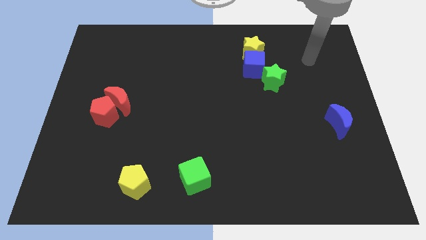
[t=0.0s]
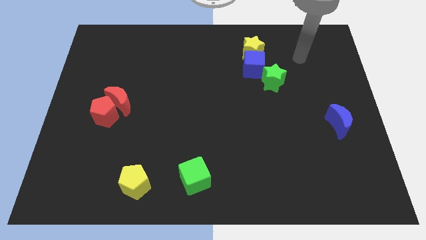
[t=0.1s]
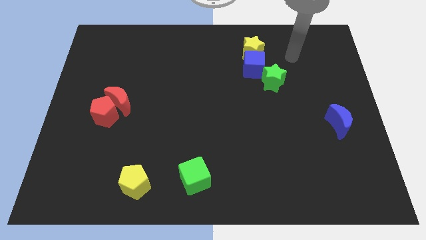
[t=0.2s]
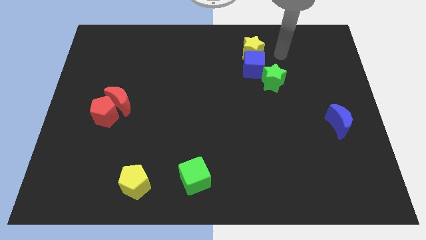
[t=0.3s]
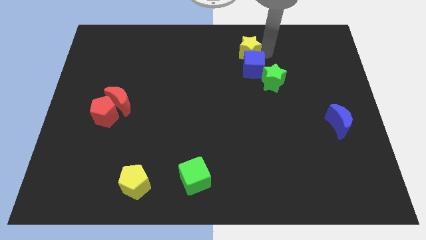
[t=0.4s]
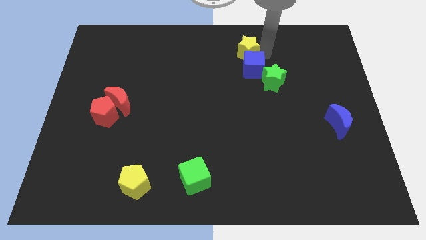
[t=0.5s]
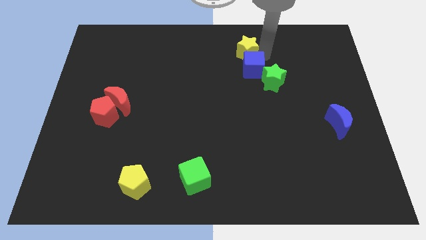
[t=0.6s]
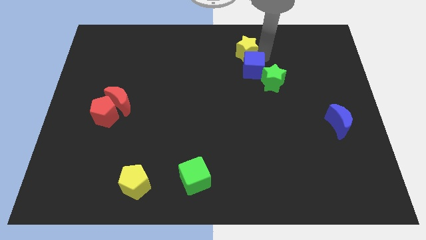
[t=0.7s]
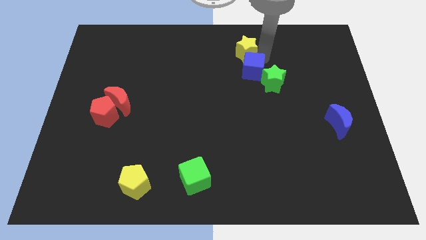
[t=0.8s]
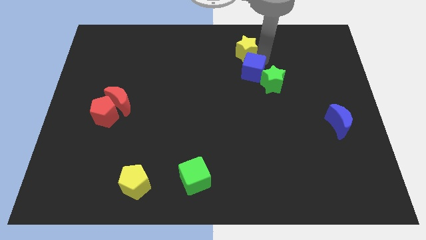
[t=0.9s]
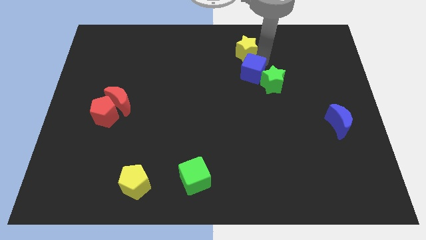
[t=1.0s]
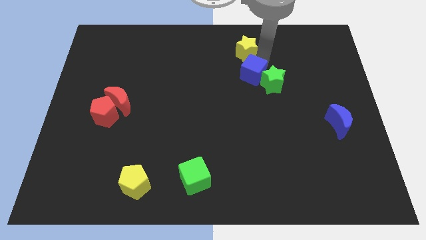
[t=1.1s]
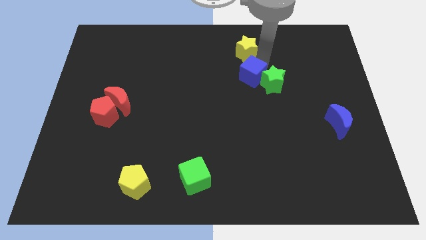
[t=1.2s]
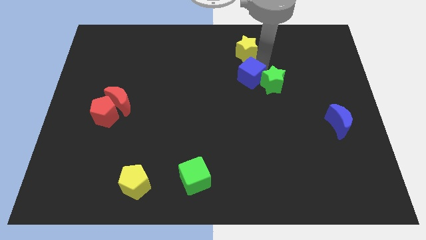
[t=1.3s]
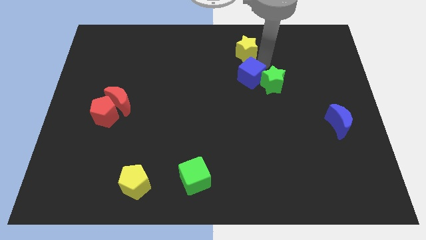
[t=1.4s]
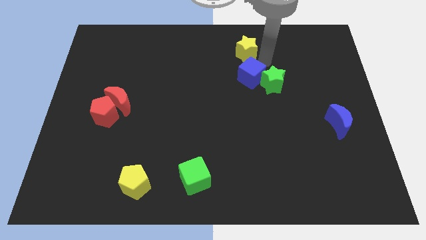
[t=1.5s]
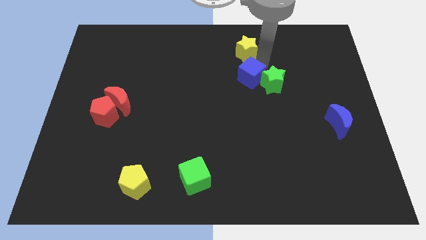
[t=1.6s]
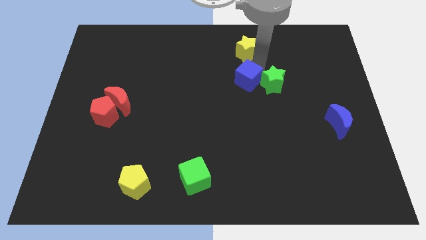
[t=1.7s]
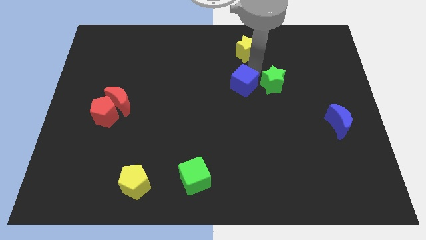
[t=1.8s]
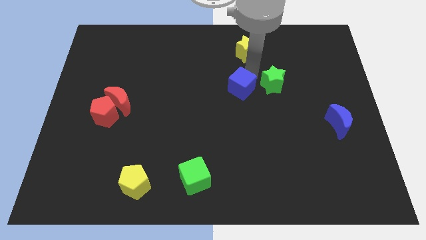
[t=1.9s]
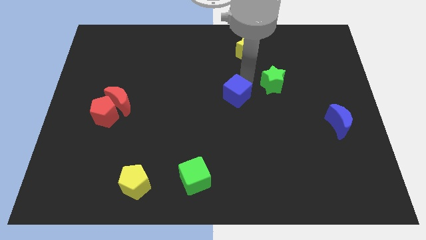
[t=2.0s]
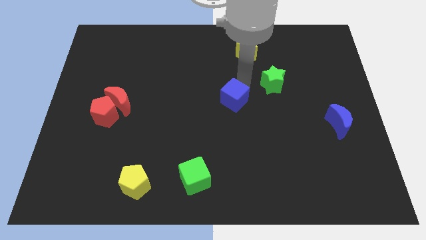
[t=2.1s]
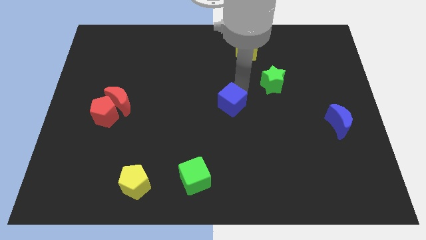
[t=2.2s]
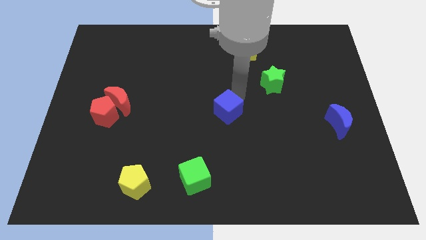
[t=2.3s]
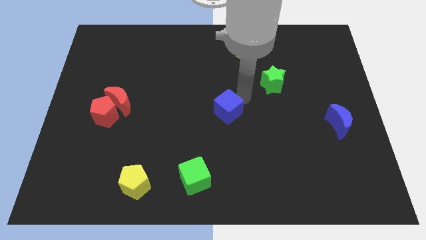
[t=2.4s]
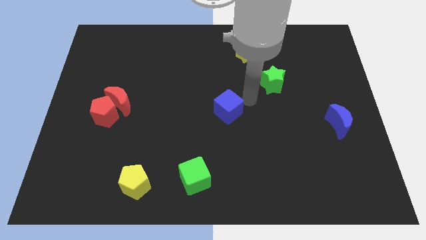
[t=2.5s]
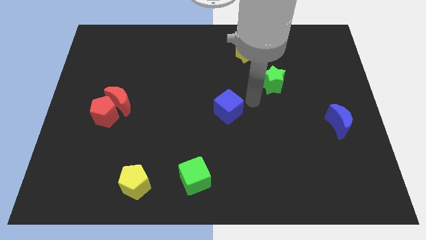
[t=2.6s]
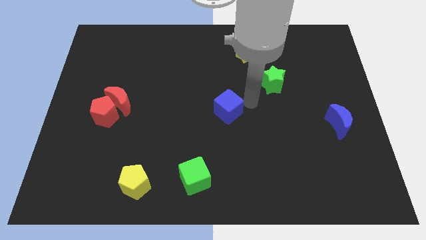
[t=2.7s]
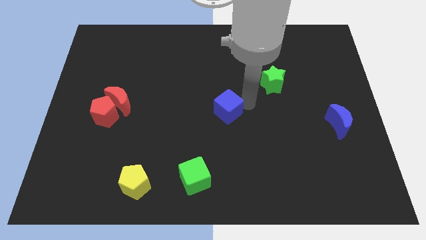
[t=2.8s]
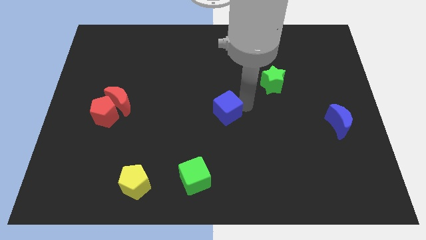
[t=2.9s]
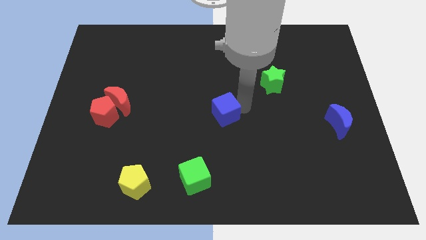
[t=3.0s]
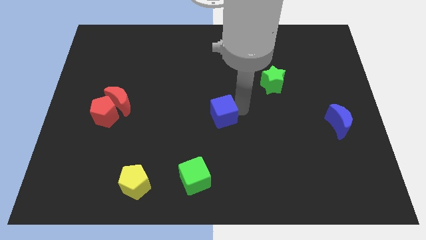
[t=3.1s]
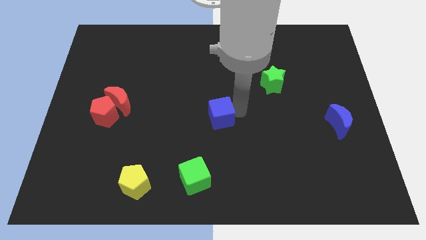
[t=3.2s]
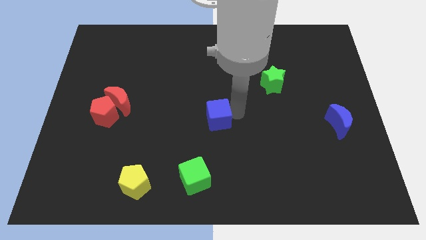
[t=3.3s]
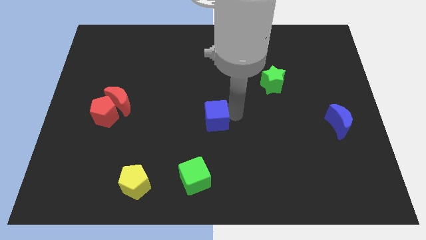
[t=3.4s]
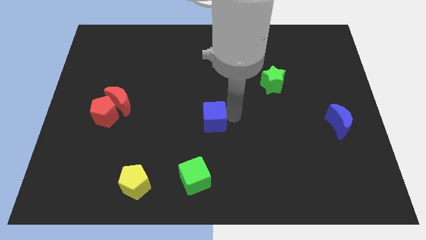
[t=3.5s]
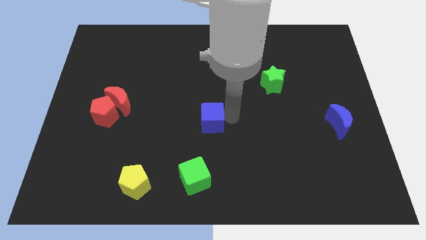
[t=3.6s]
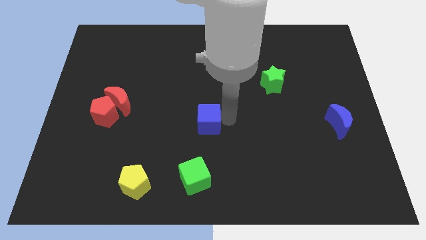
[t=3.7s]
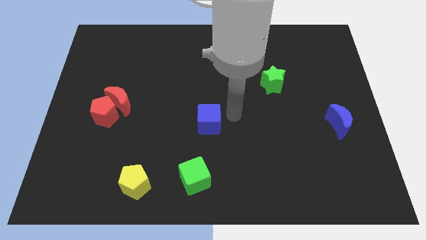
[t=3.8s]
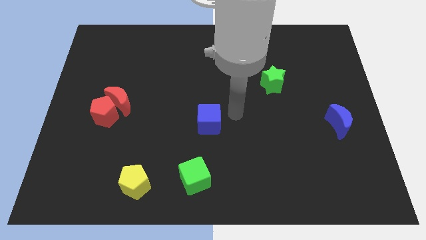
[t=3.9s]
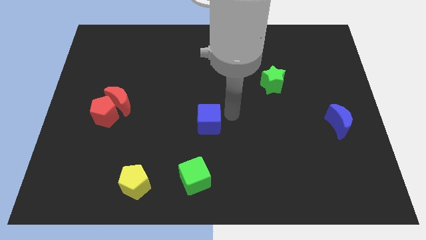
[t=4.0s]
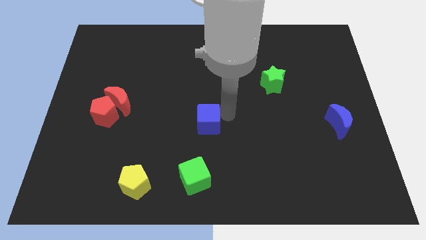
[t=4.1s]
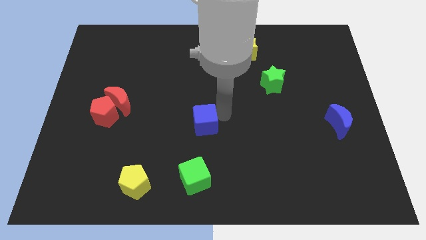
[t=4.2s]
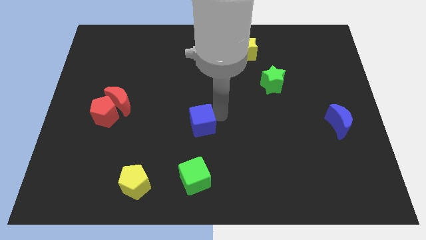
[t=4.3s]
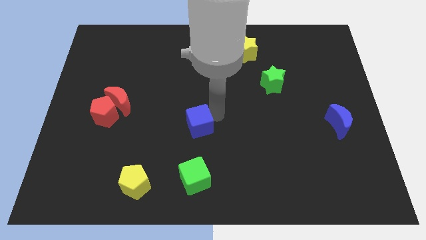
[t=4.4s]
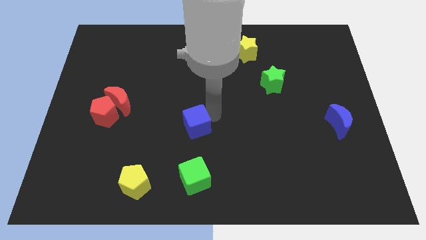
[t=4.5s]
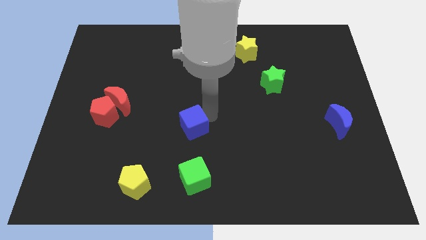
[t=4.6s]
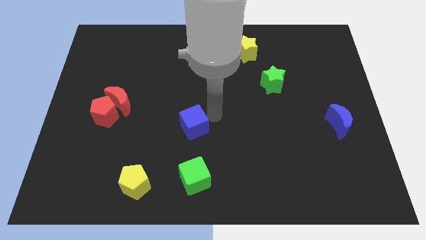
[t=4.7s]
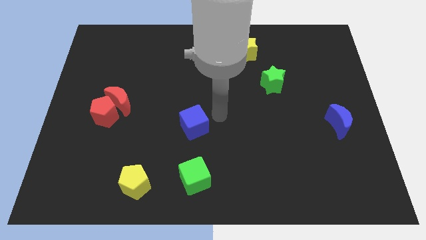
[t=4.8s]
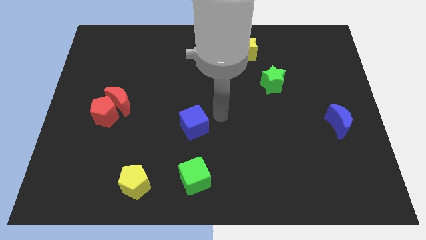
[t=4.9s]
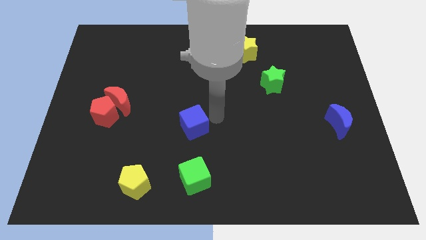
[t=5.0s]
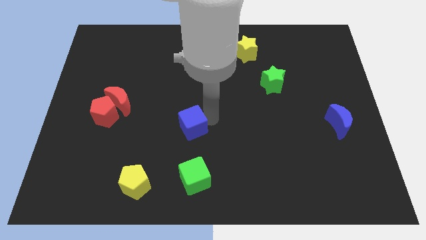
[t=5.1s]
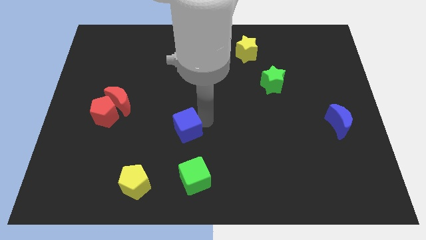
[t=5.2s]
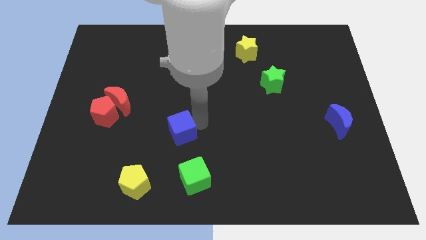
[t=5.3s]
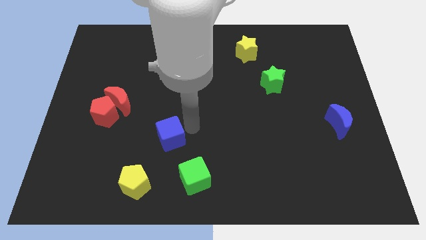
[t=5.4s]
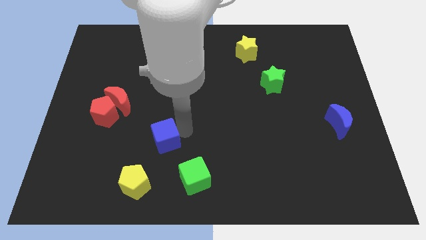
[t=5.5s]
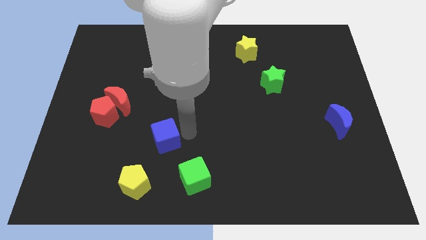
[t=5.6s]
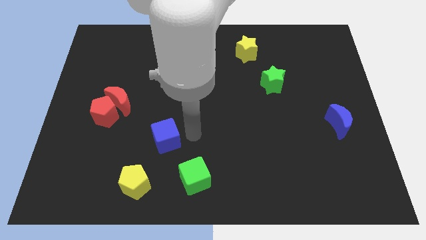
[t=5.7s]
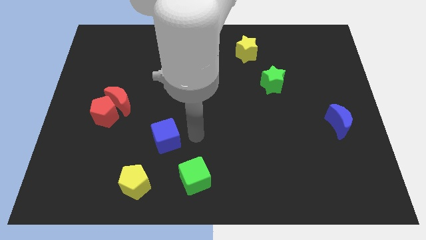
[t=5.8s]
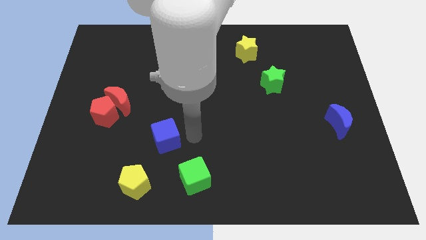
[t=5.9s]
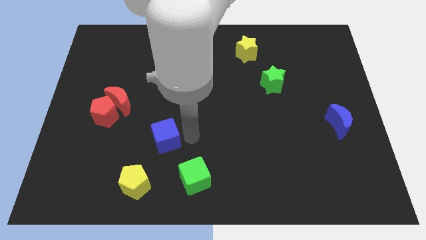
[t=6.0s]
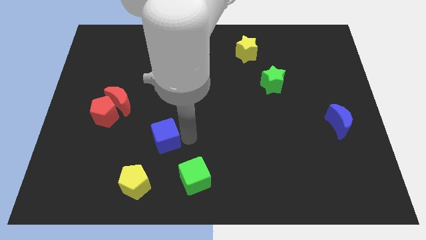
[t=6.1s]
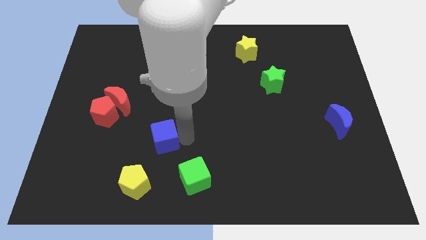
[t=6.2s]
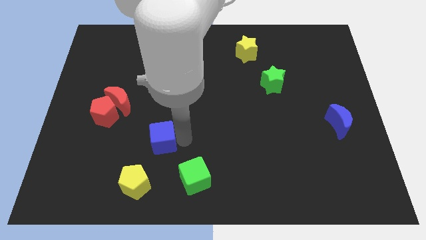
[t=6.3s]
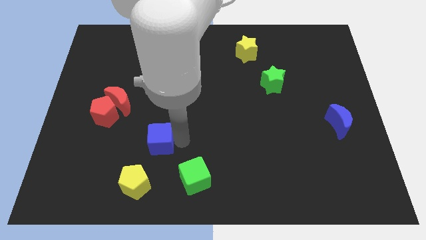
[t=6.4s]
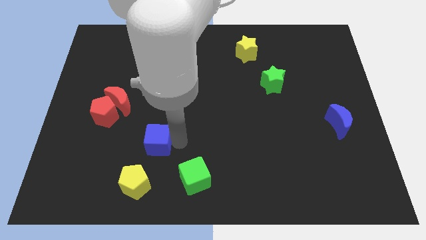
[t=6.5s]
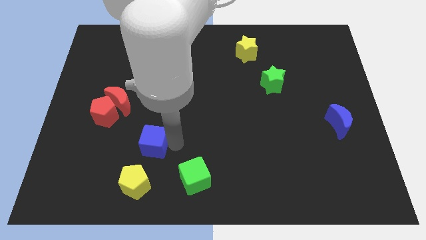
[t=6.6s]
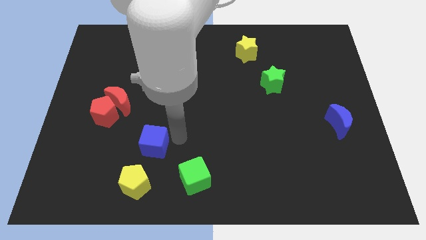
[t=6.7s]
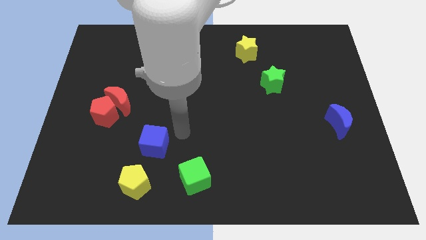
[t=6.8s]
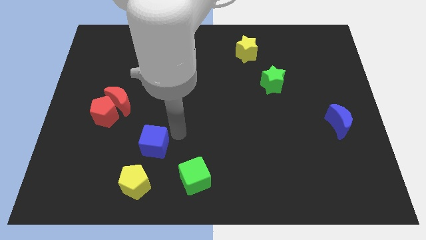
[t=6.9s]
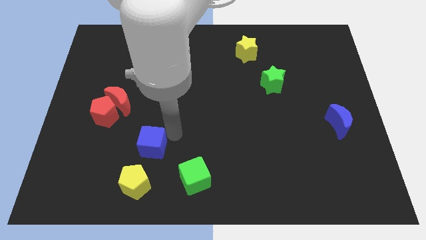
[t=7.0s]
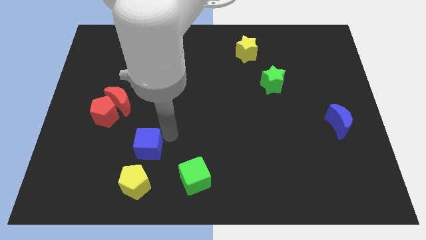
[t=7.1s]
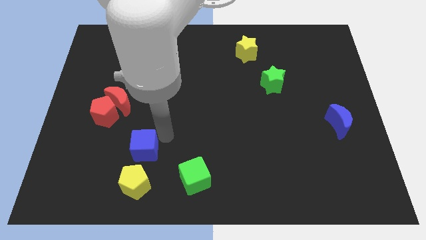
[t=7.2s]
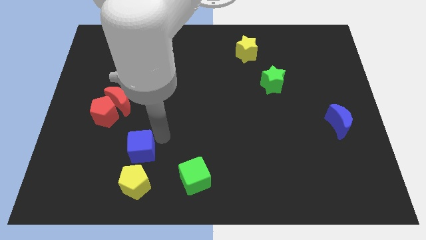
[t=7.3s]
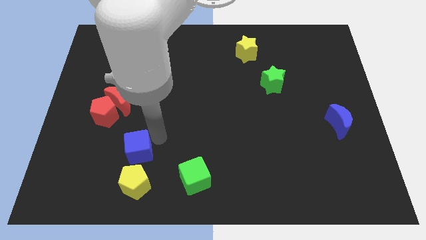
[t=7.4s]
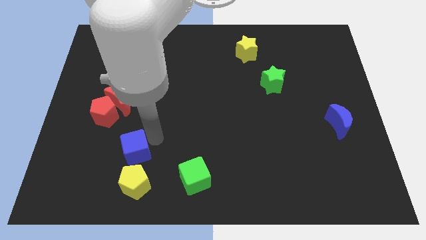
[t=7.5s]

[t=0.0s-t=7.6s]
push the blue cube to the top left of the yellow pentagon
